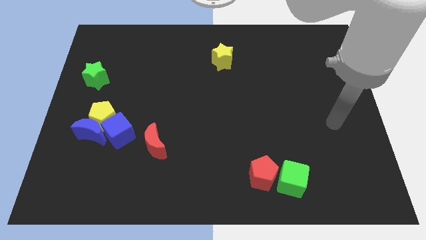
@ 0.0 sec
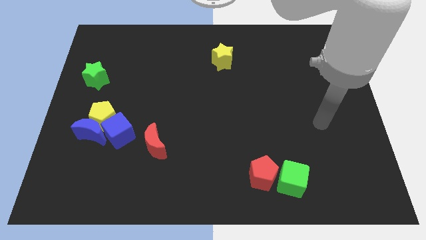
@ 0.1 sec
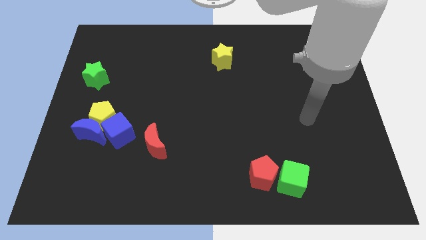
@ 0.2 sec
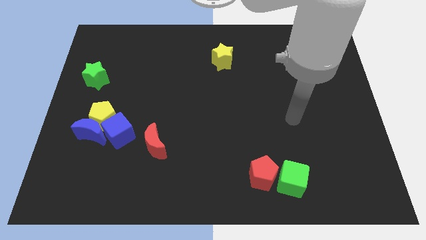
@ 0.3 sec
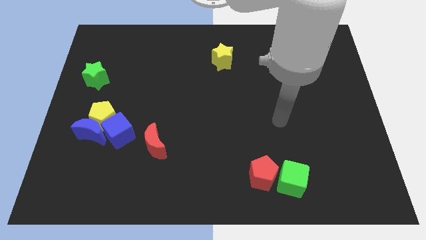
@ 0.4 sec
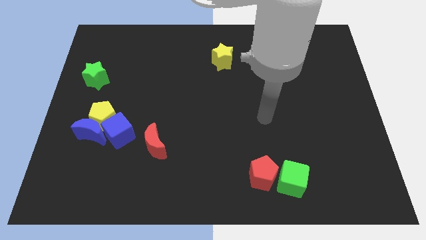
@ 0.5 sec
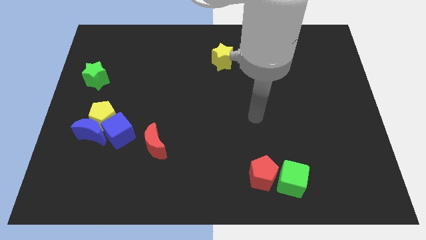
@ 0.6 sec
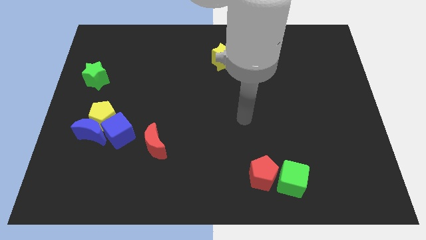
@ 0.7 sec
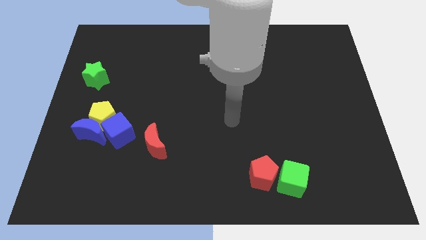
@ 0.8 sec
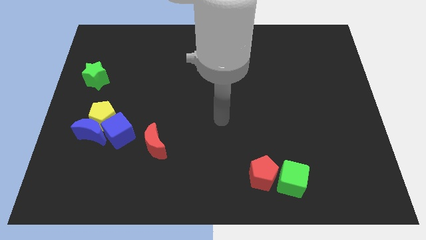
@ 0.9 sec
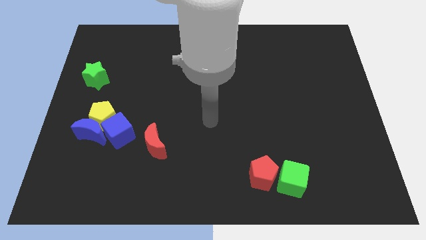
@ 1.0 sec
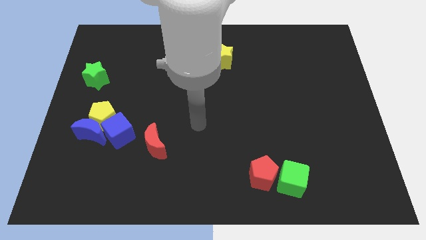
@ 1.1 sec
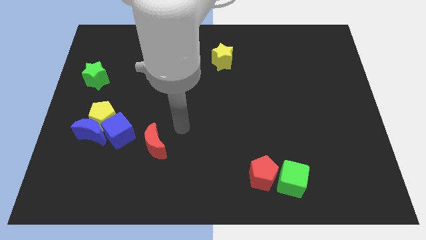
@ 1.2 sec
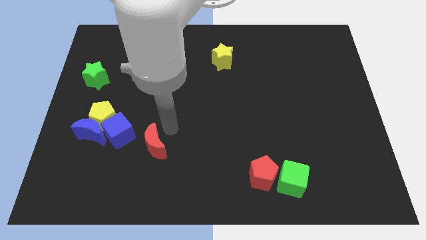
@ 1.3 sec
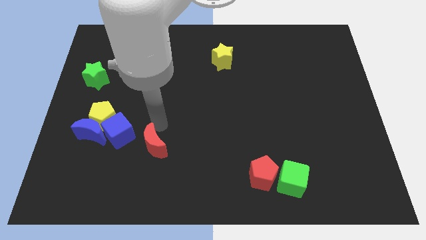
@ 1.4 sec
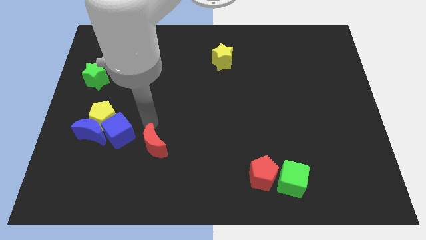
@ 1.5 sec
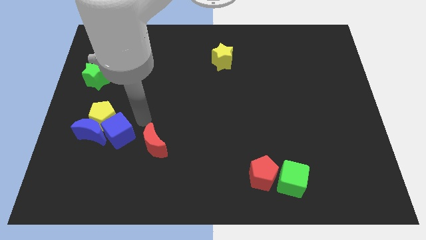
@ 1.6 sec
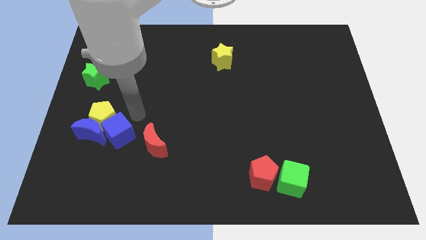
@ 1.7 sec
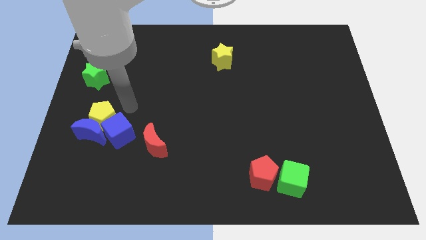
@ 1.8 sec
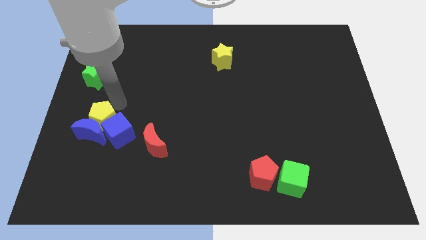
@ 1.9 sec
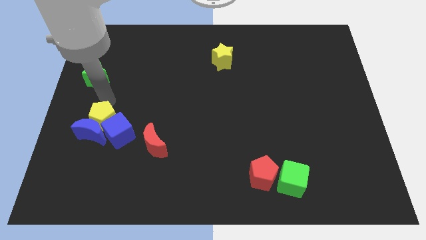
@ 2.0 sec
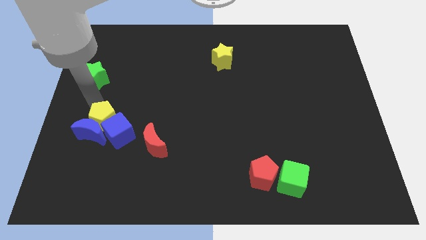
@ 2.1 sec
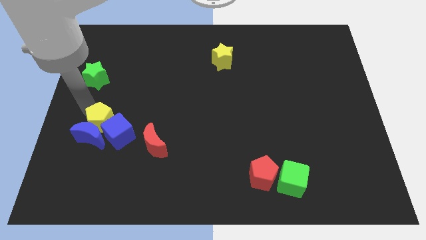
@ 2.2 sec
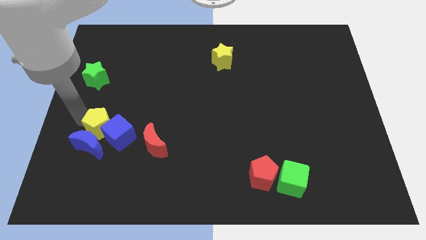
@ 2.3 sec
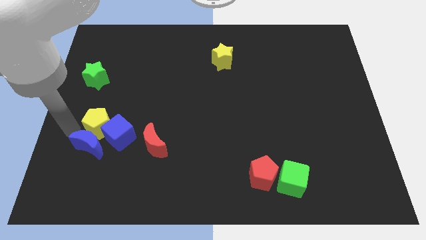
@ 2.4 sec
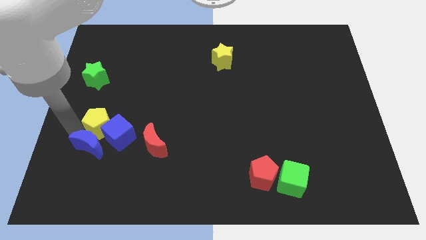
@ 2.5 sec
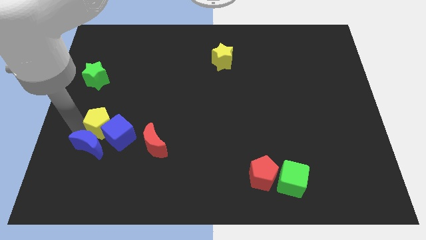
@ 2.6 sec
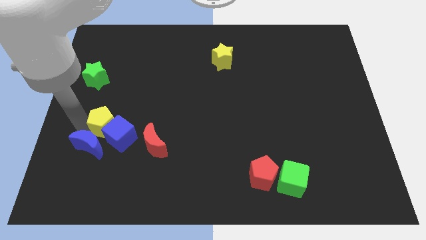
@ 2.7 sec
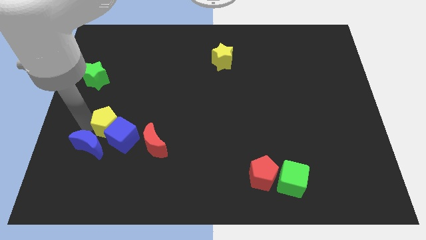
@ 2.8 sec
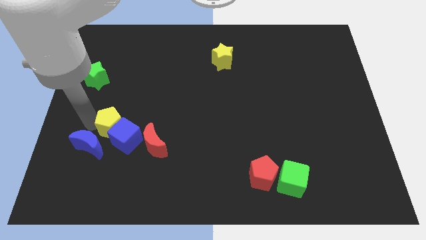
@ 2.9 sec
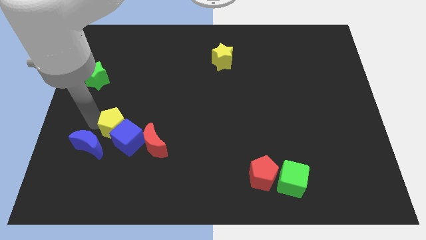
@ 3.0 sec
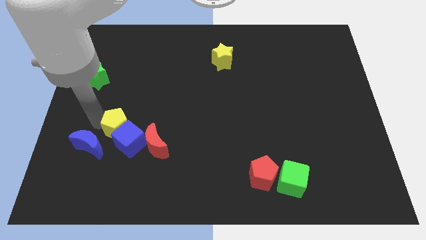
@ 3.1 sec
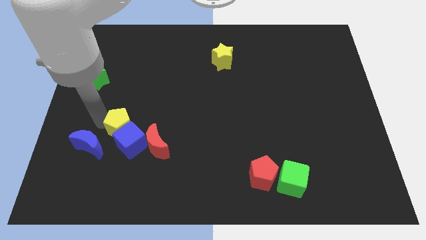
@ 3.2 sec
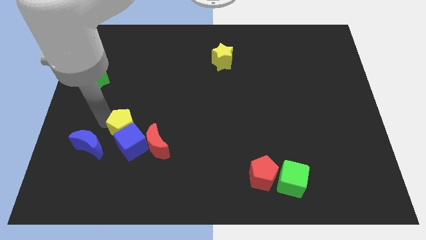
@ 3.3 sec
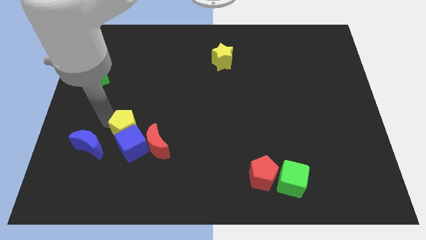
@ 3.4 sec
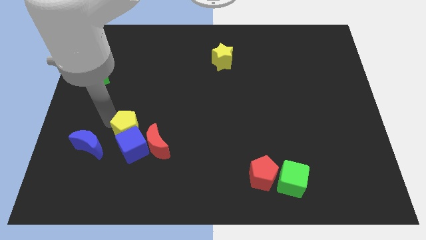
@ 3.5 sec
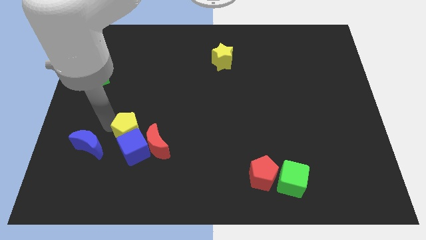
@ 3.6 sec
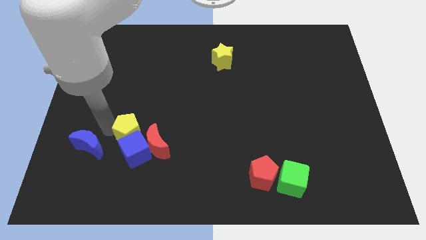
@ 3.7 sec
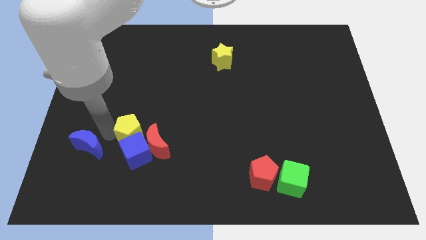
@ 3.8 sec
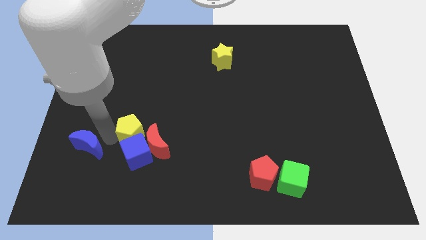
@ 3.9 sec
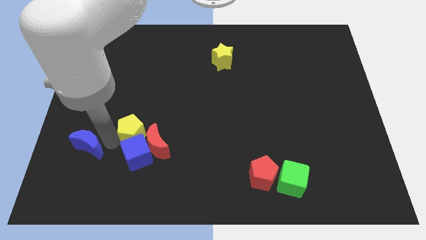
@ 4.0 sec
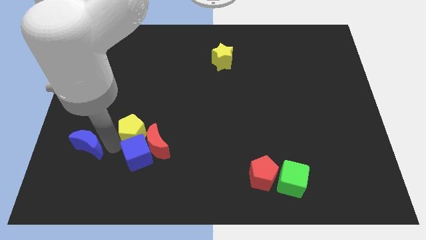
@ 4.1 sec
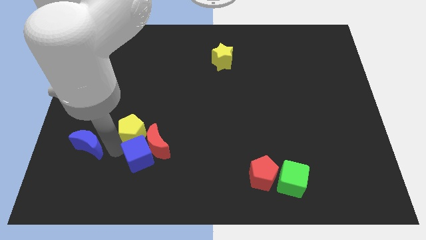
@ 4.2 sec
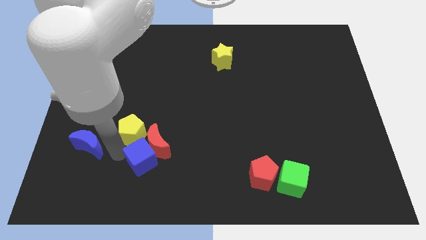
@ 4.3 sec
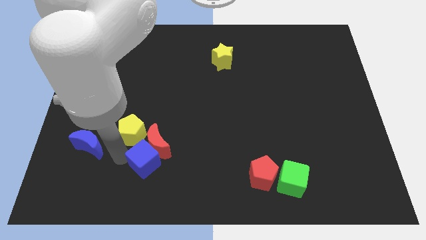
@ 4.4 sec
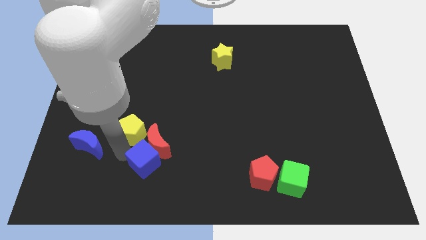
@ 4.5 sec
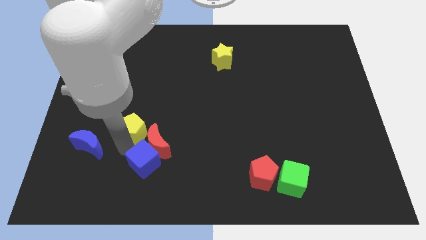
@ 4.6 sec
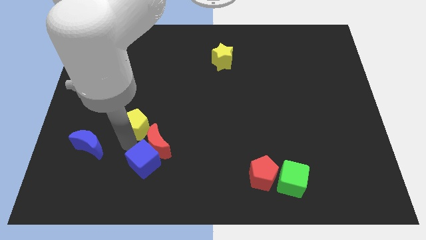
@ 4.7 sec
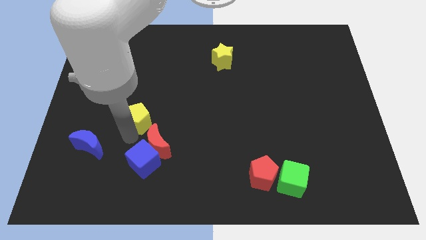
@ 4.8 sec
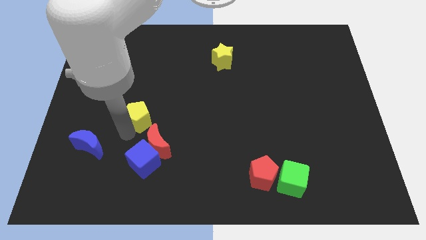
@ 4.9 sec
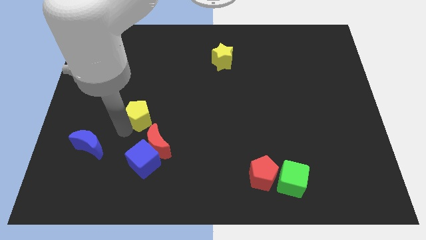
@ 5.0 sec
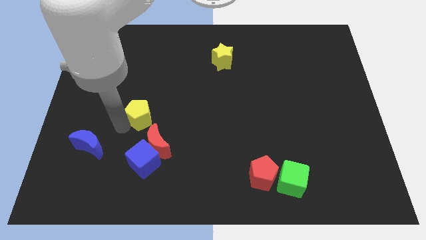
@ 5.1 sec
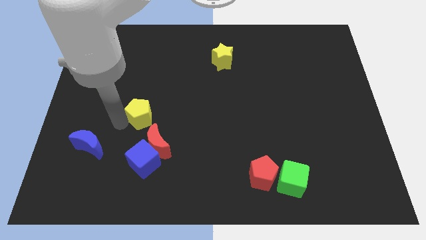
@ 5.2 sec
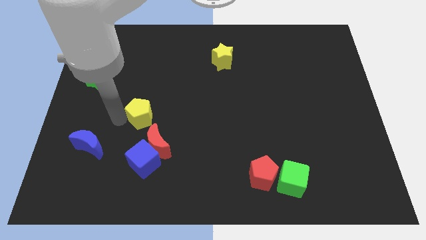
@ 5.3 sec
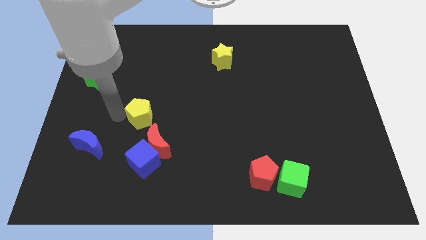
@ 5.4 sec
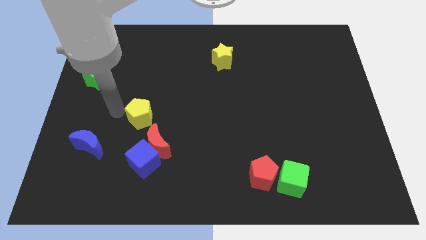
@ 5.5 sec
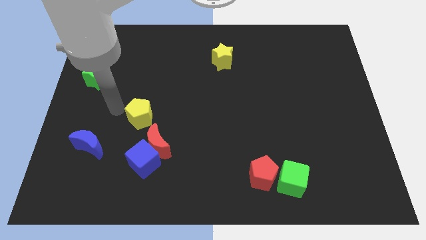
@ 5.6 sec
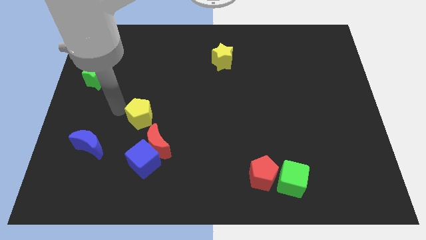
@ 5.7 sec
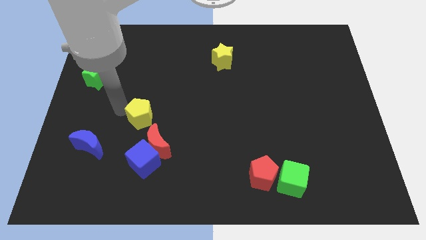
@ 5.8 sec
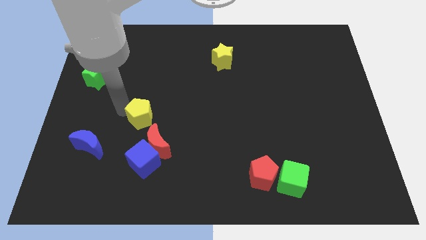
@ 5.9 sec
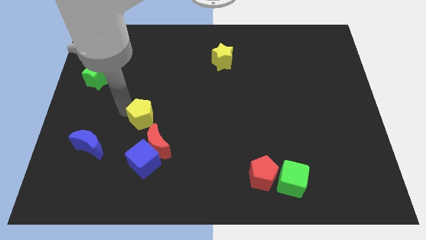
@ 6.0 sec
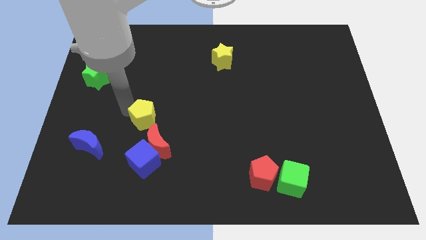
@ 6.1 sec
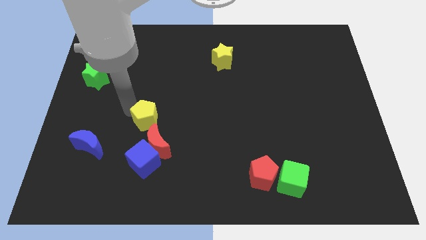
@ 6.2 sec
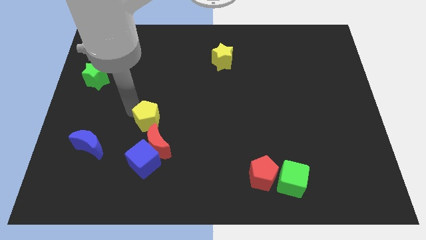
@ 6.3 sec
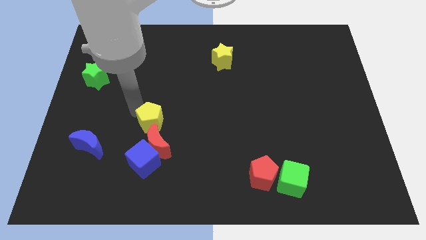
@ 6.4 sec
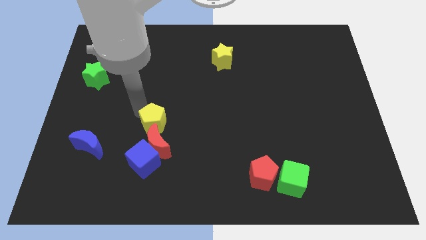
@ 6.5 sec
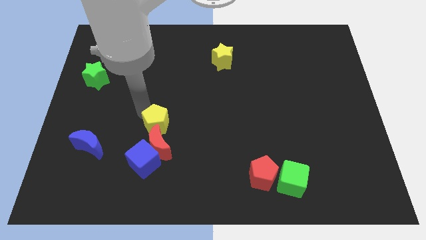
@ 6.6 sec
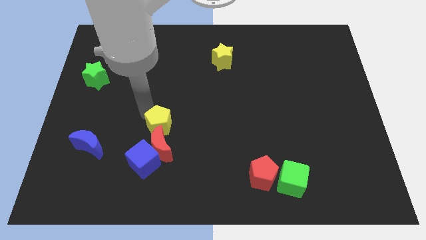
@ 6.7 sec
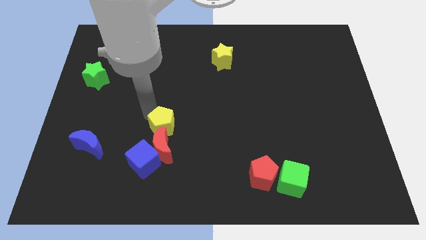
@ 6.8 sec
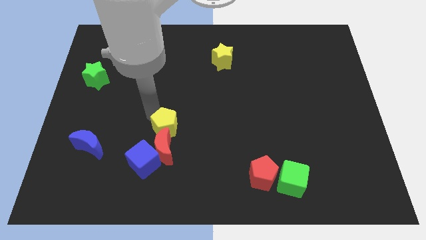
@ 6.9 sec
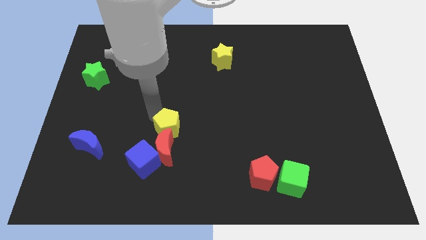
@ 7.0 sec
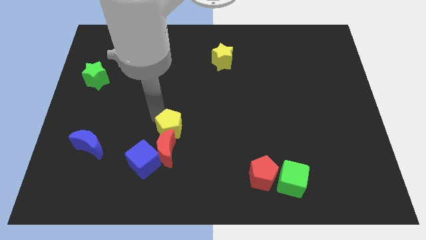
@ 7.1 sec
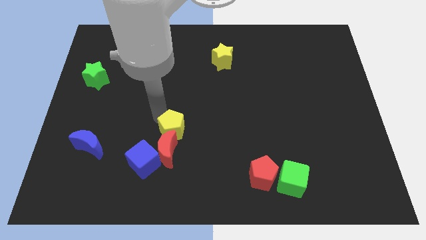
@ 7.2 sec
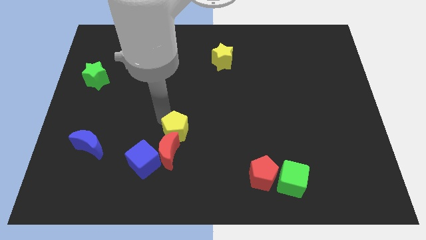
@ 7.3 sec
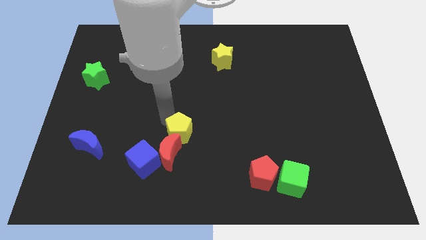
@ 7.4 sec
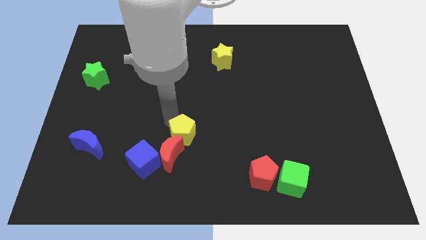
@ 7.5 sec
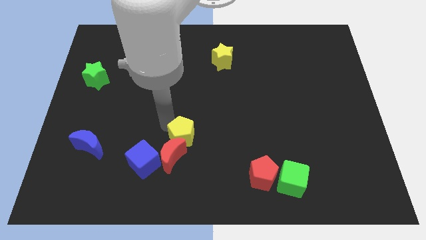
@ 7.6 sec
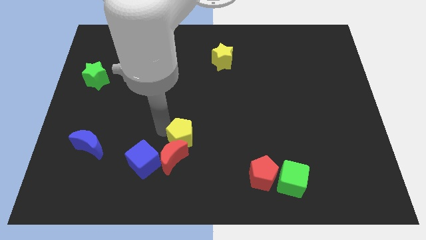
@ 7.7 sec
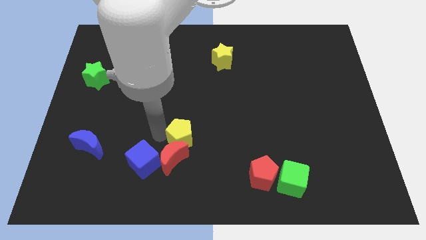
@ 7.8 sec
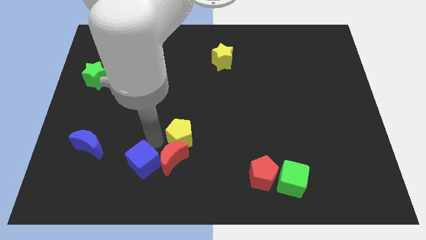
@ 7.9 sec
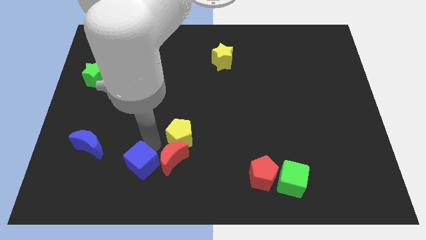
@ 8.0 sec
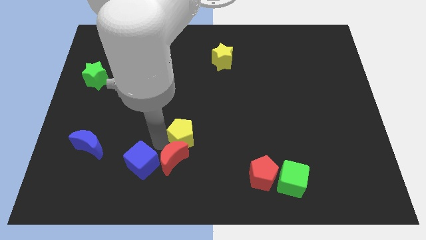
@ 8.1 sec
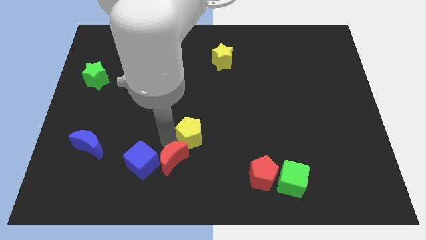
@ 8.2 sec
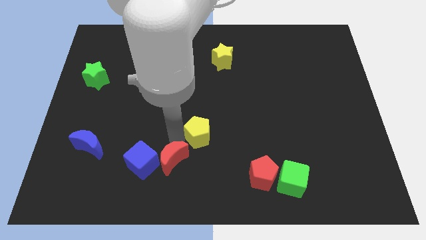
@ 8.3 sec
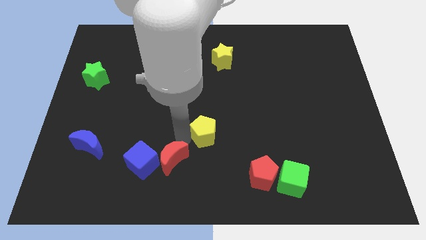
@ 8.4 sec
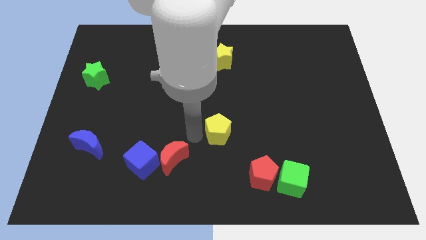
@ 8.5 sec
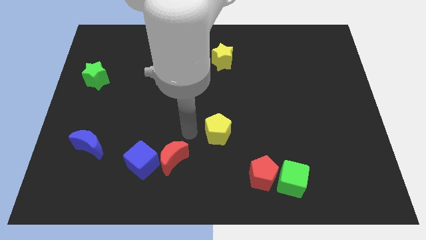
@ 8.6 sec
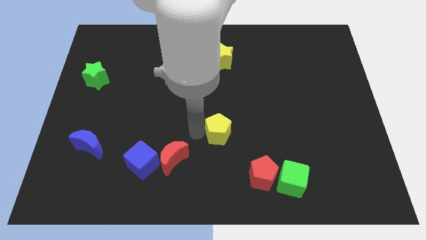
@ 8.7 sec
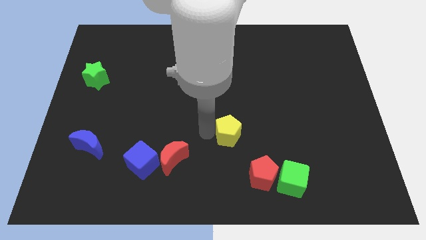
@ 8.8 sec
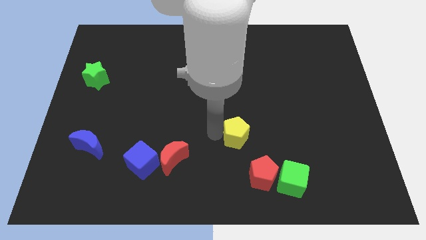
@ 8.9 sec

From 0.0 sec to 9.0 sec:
push the yellow pentagon to the top side of the red pentagon
